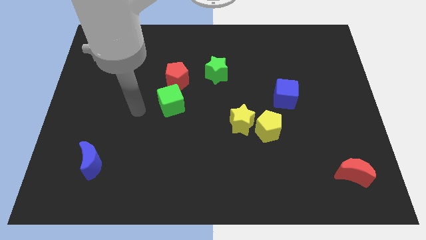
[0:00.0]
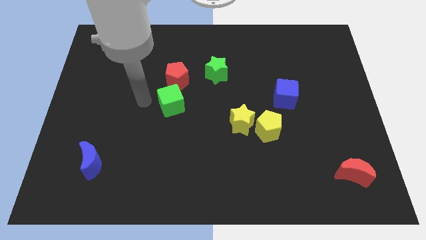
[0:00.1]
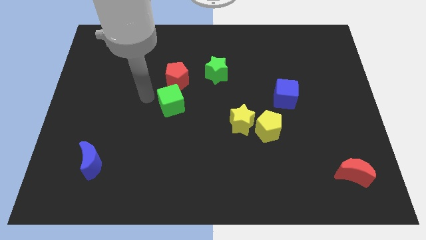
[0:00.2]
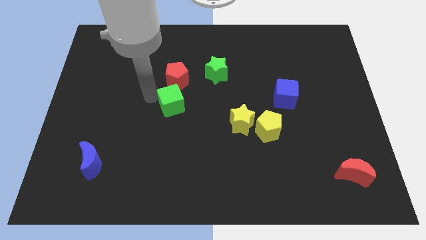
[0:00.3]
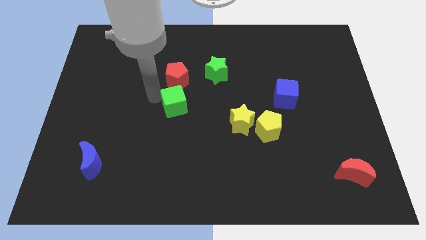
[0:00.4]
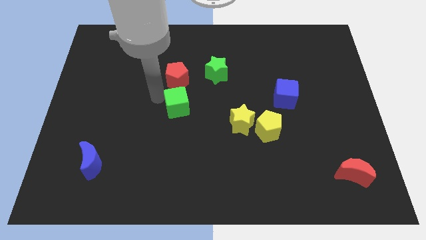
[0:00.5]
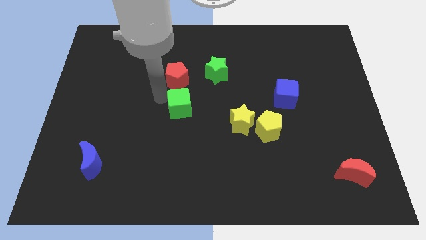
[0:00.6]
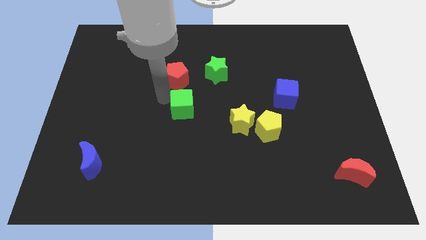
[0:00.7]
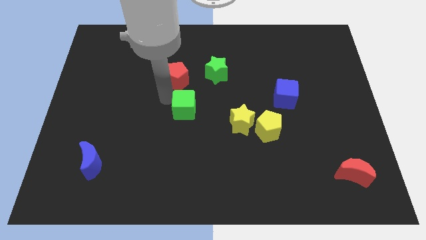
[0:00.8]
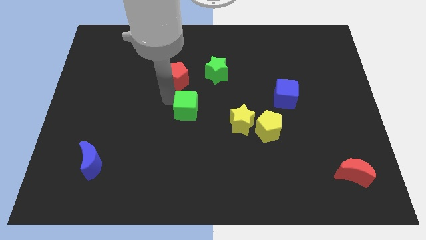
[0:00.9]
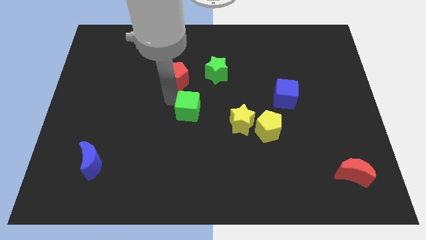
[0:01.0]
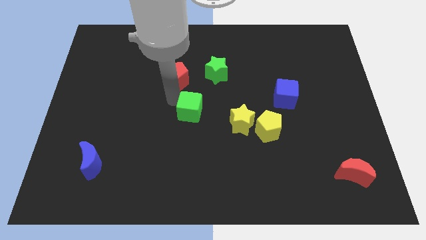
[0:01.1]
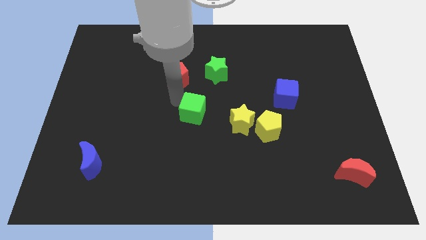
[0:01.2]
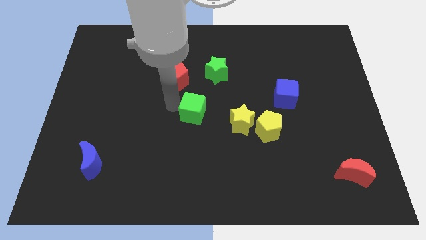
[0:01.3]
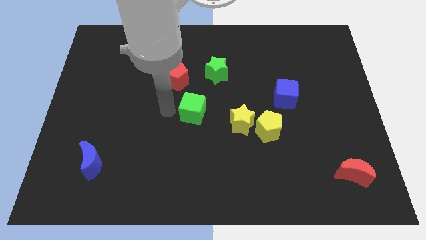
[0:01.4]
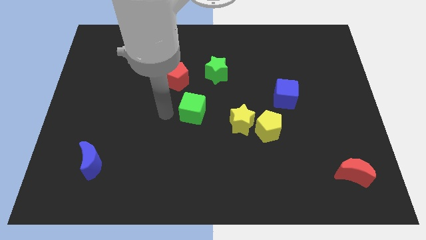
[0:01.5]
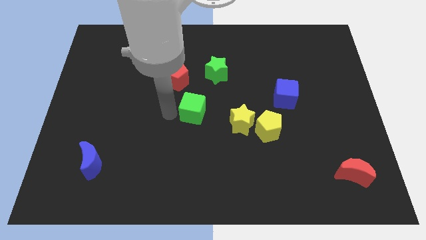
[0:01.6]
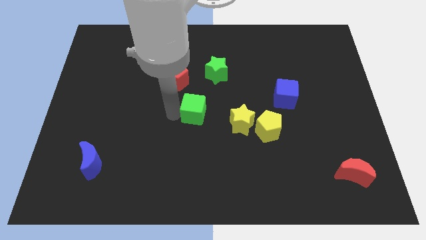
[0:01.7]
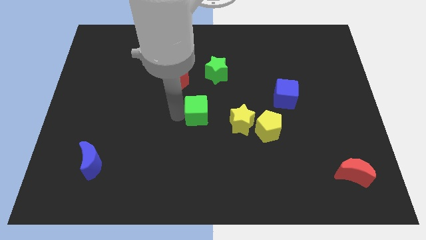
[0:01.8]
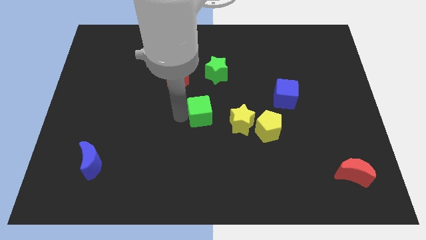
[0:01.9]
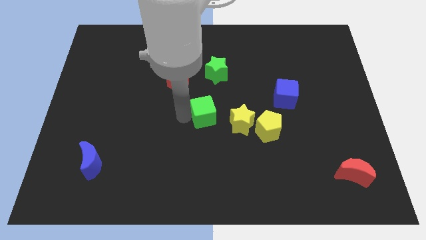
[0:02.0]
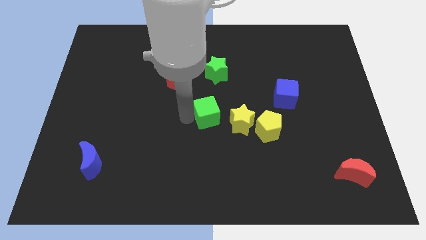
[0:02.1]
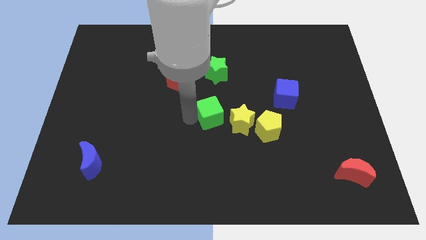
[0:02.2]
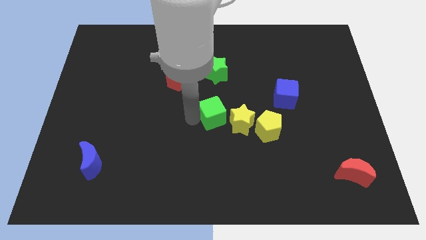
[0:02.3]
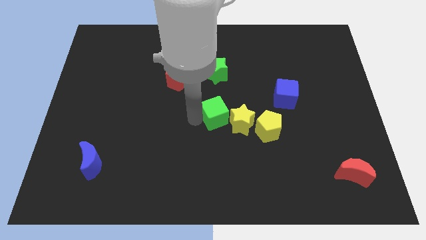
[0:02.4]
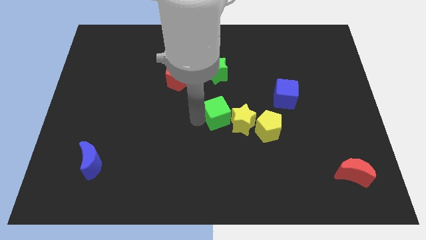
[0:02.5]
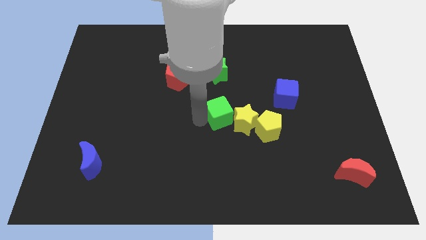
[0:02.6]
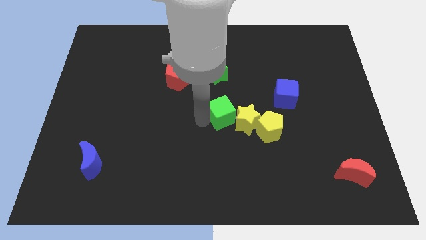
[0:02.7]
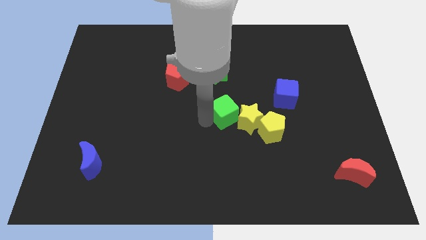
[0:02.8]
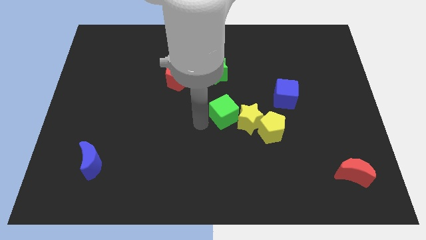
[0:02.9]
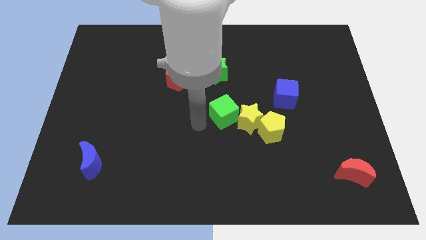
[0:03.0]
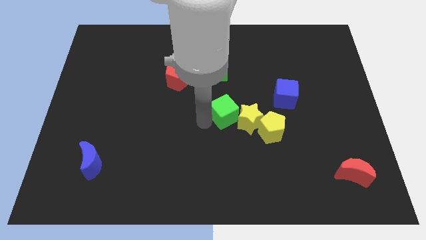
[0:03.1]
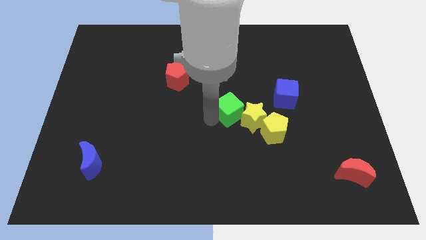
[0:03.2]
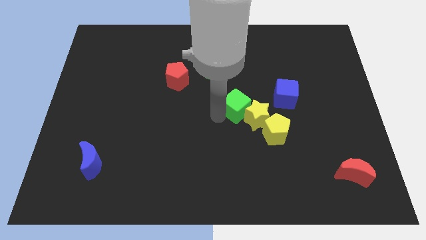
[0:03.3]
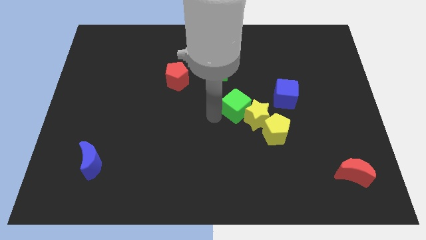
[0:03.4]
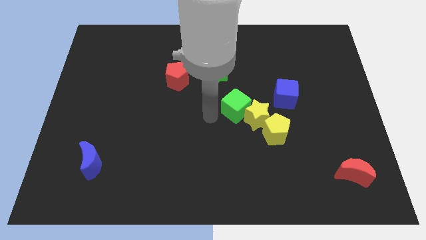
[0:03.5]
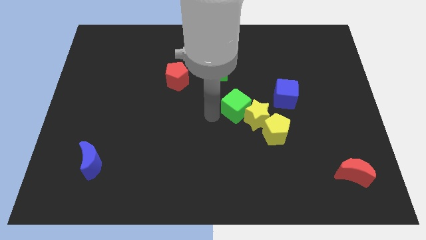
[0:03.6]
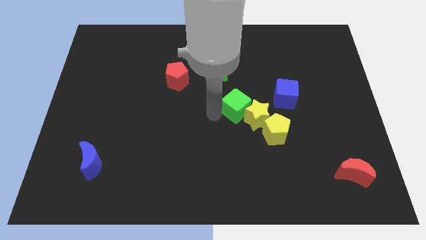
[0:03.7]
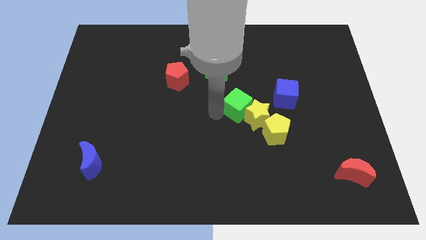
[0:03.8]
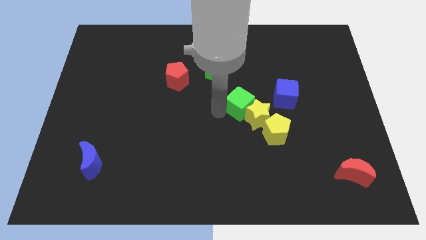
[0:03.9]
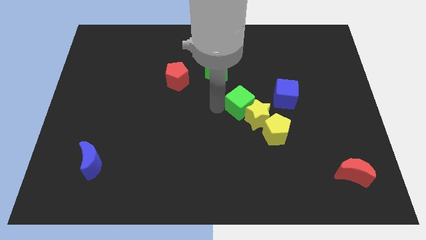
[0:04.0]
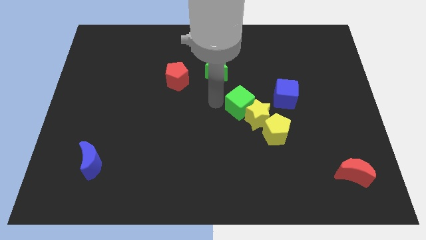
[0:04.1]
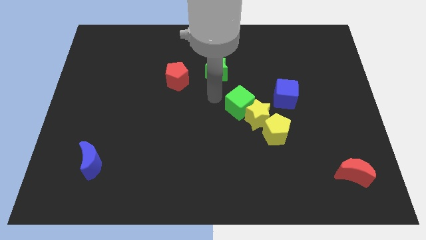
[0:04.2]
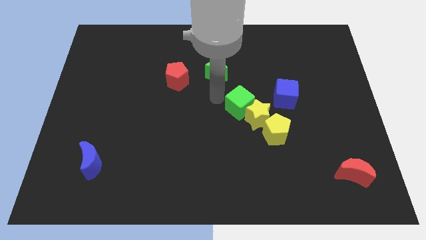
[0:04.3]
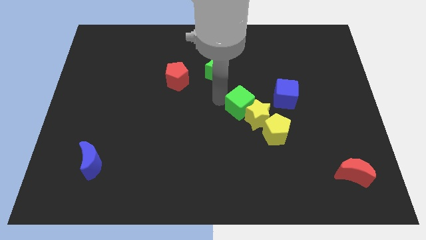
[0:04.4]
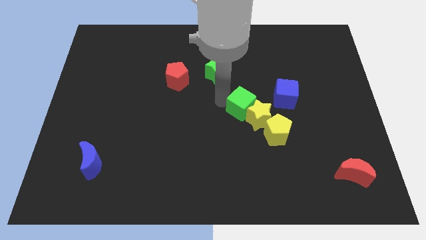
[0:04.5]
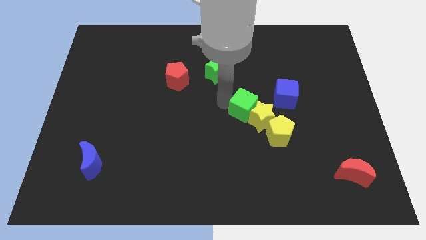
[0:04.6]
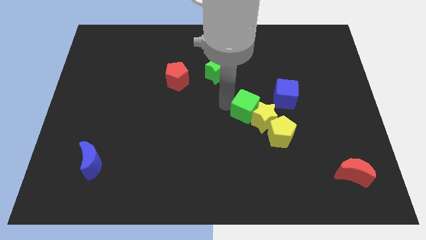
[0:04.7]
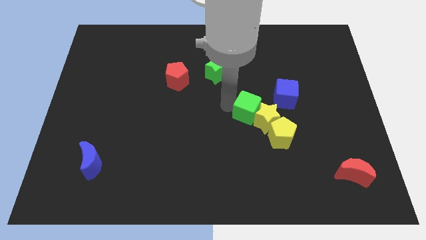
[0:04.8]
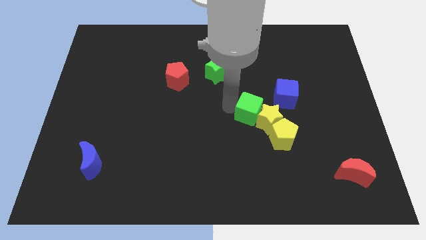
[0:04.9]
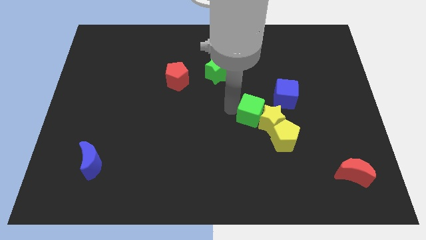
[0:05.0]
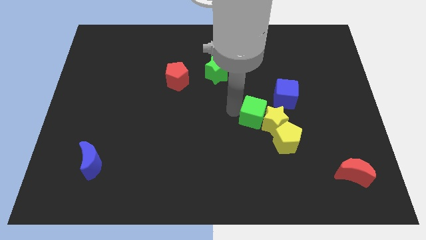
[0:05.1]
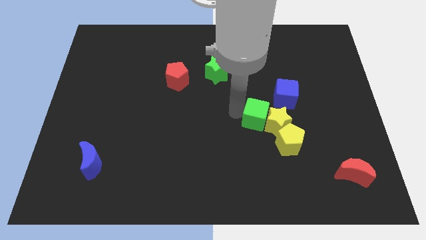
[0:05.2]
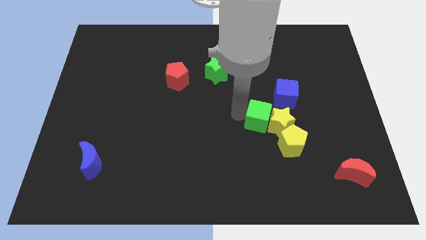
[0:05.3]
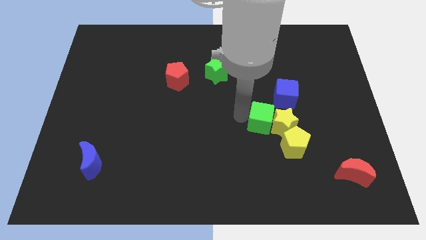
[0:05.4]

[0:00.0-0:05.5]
push the green cube to the right

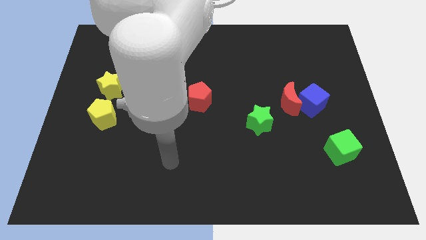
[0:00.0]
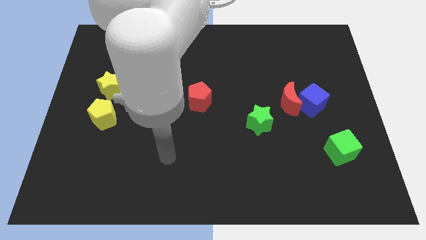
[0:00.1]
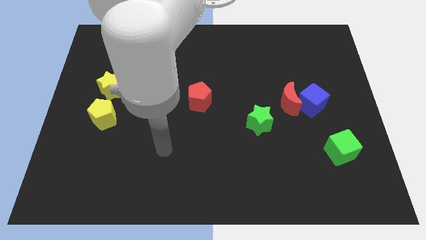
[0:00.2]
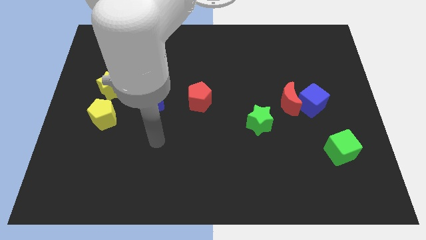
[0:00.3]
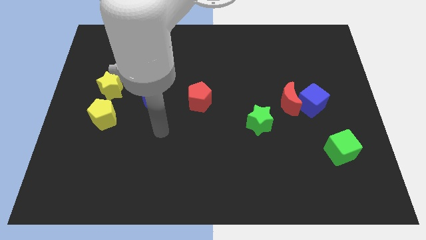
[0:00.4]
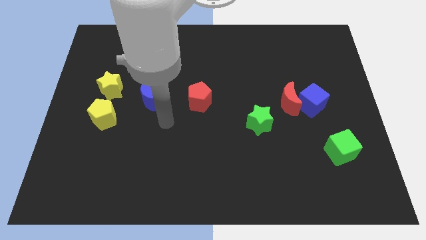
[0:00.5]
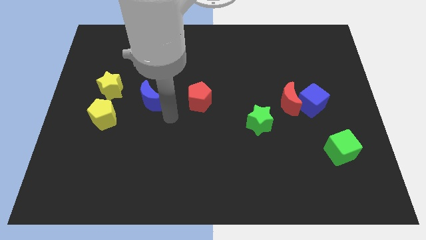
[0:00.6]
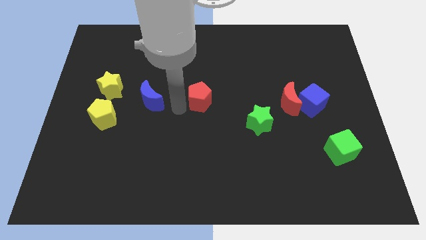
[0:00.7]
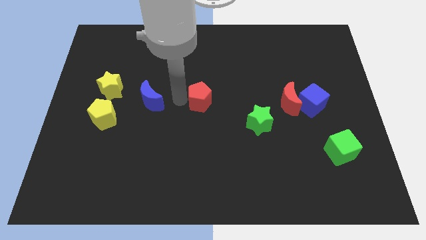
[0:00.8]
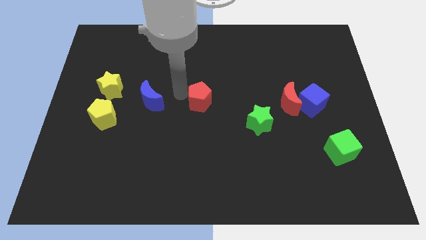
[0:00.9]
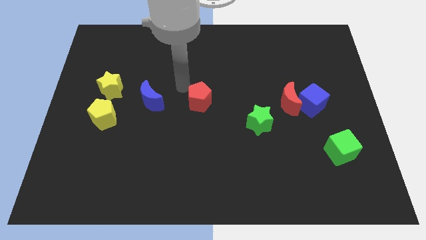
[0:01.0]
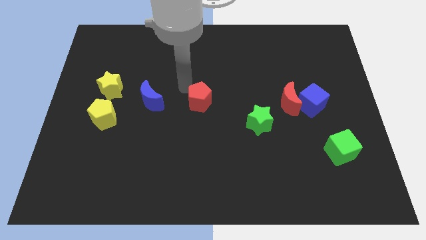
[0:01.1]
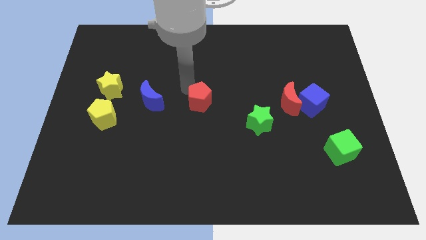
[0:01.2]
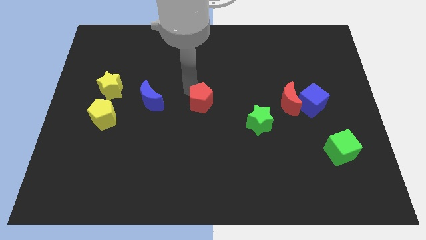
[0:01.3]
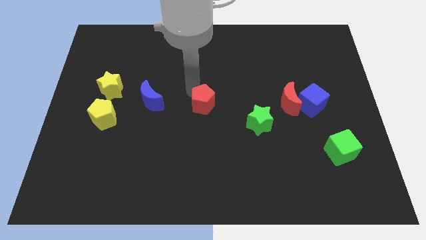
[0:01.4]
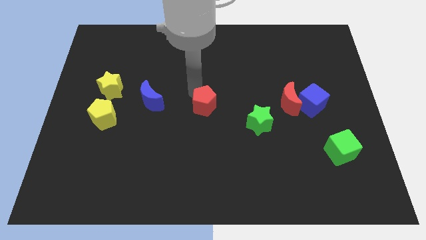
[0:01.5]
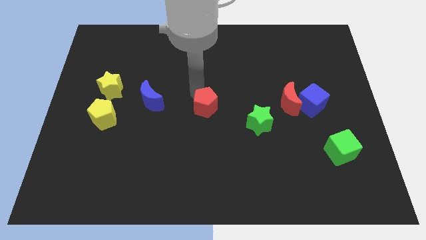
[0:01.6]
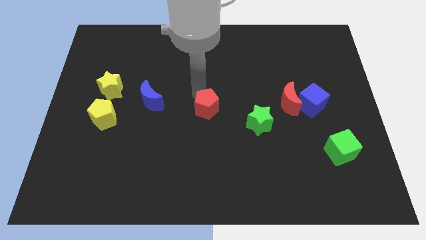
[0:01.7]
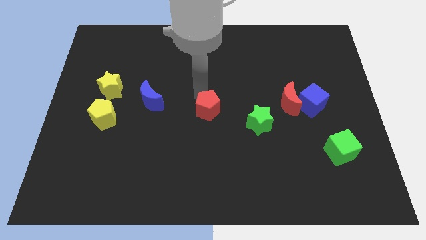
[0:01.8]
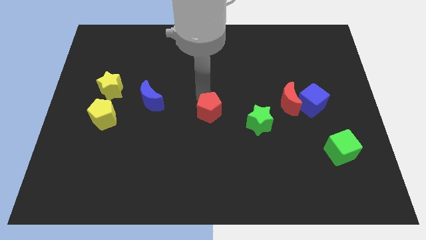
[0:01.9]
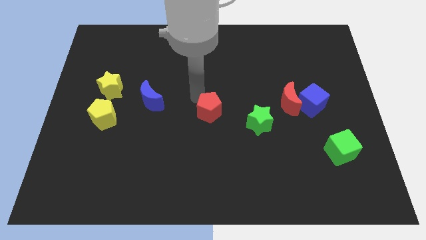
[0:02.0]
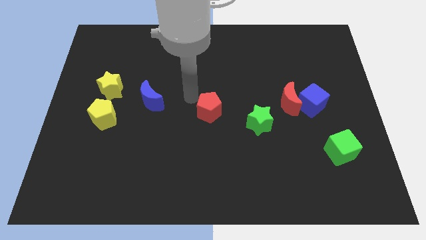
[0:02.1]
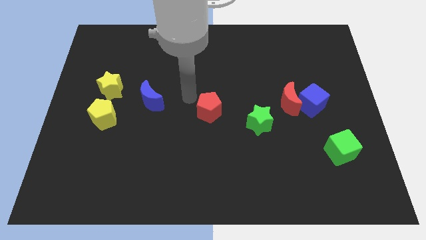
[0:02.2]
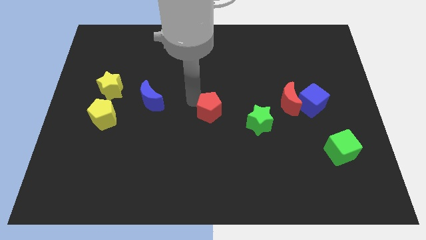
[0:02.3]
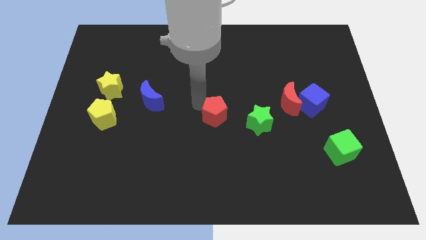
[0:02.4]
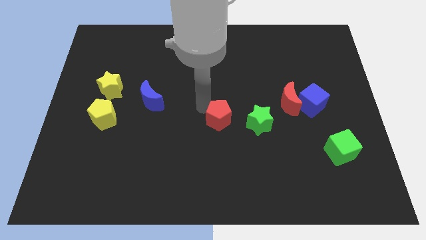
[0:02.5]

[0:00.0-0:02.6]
slightly slide the red pentagon downwards and then to the right

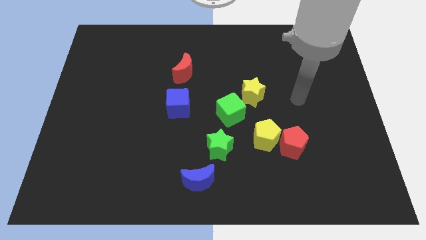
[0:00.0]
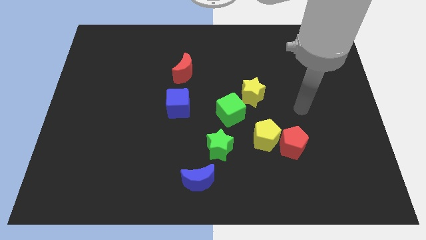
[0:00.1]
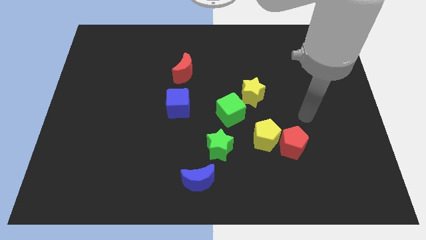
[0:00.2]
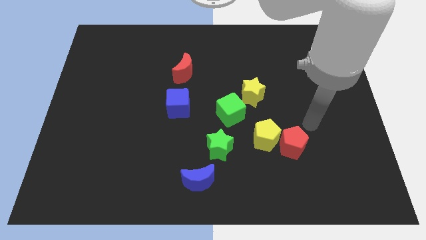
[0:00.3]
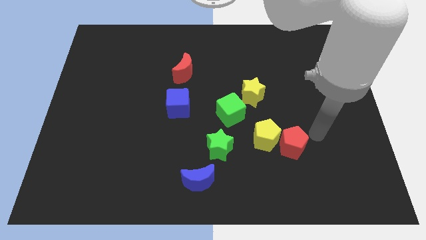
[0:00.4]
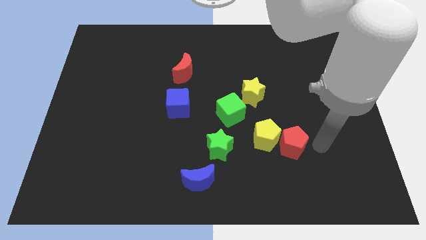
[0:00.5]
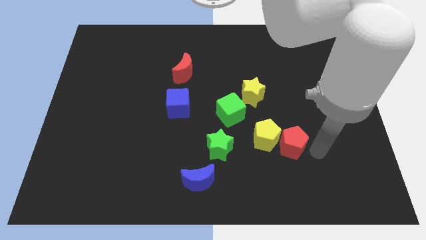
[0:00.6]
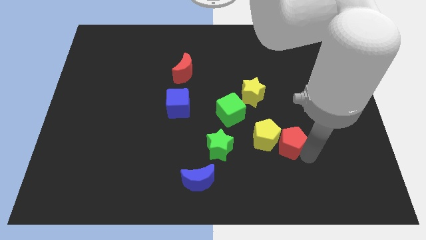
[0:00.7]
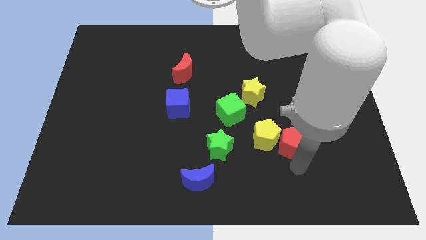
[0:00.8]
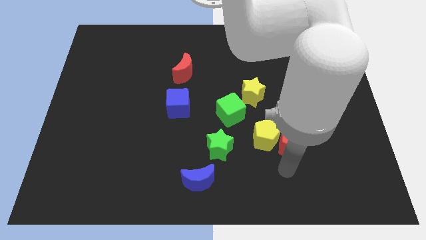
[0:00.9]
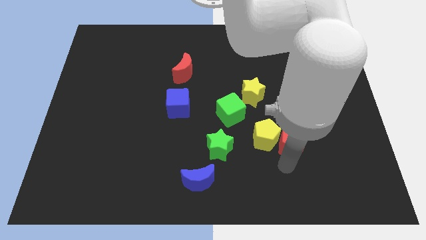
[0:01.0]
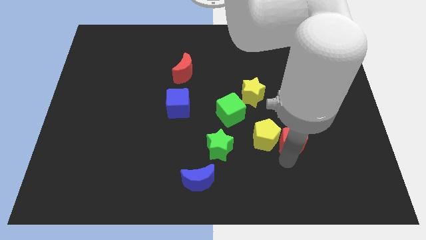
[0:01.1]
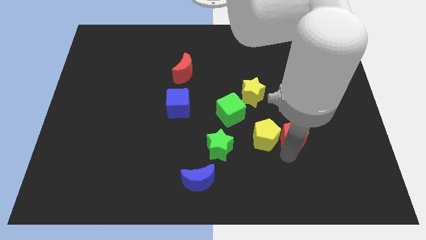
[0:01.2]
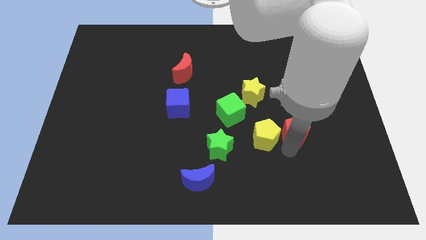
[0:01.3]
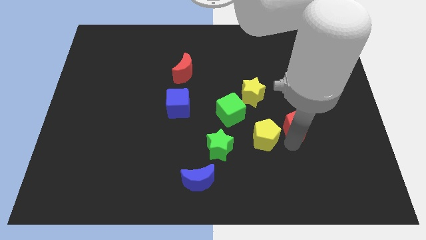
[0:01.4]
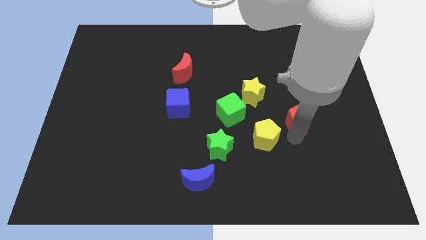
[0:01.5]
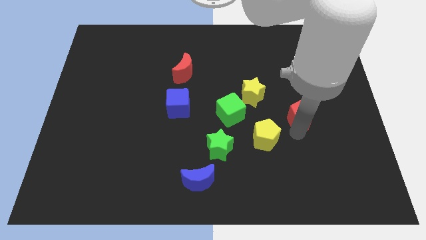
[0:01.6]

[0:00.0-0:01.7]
move the red pentagon up a little bit
